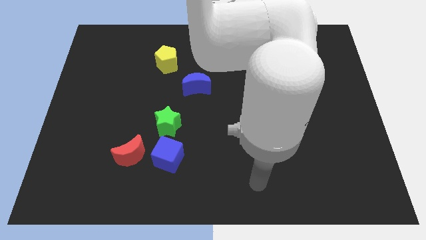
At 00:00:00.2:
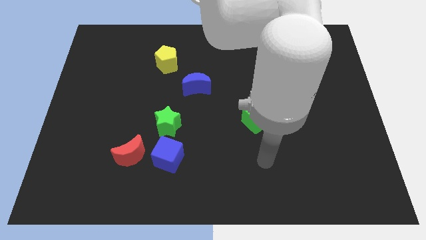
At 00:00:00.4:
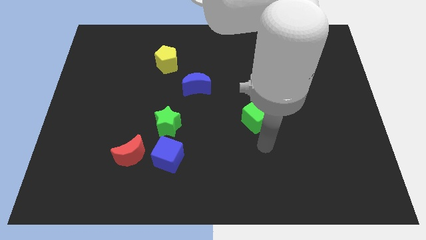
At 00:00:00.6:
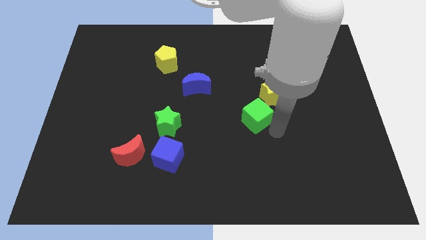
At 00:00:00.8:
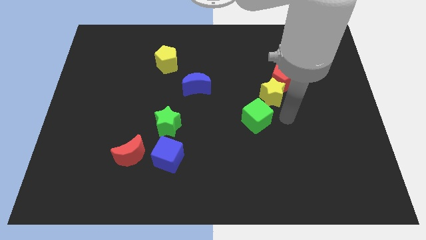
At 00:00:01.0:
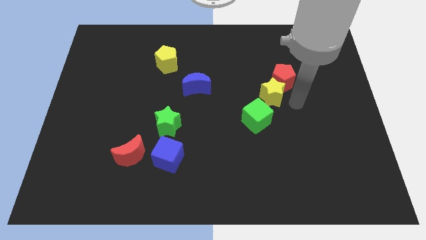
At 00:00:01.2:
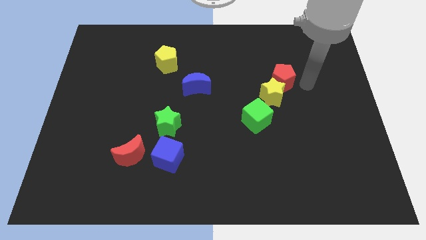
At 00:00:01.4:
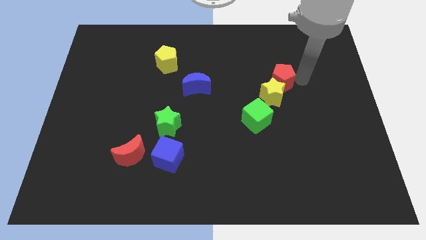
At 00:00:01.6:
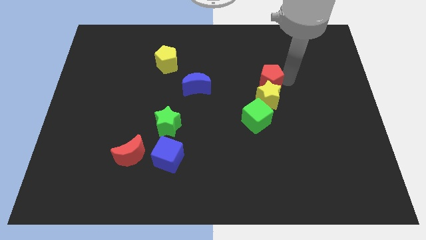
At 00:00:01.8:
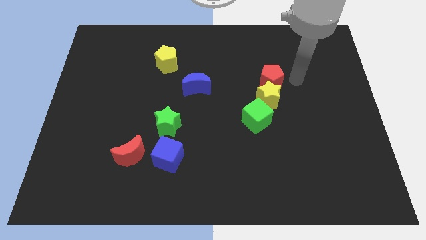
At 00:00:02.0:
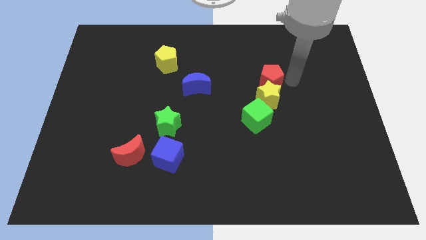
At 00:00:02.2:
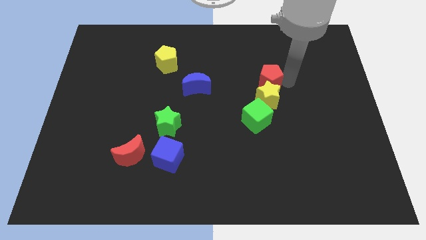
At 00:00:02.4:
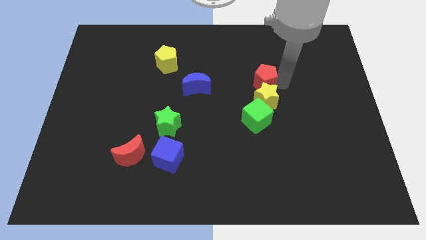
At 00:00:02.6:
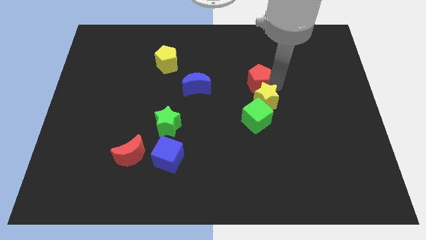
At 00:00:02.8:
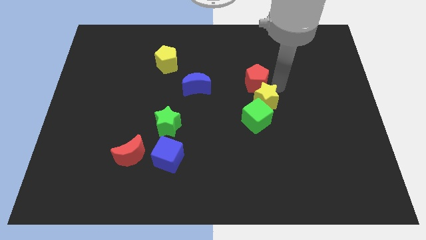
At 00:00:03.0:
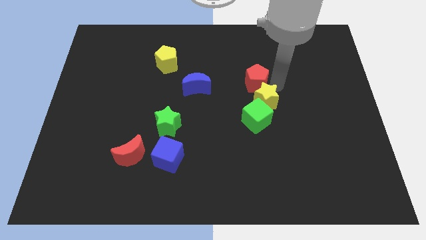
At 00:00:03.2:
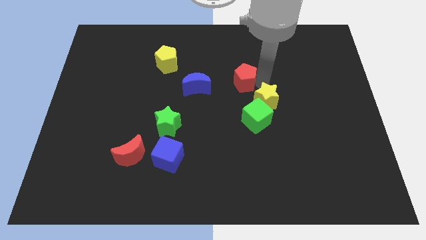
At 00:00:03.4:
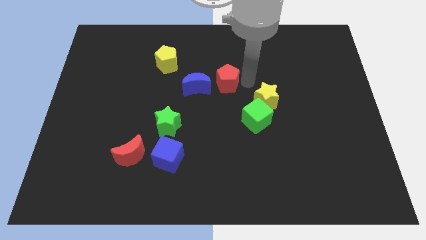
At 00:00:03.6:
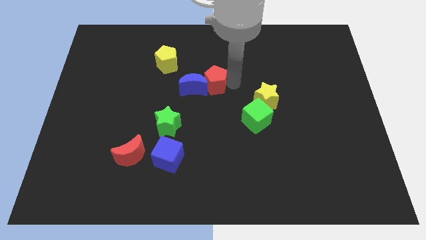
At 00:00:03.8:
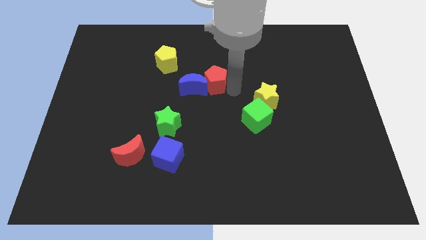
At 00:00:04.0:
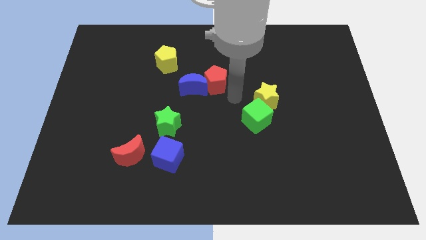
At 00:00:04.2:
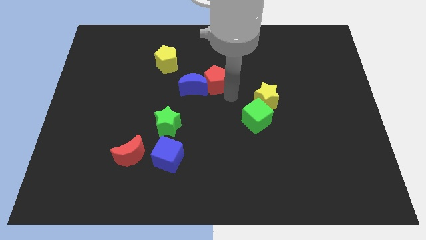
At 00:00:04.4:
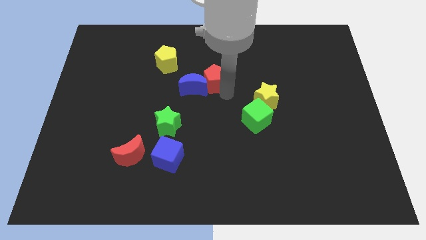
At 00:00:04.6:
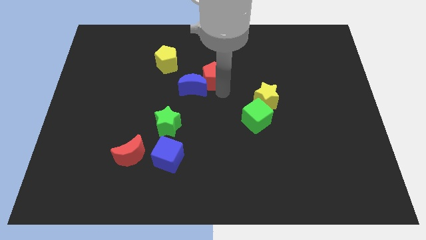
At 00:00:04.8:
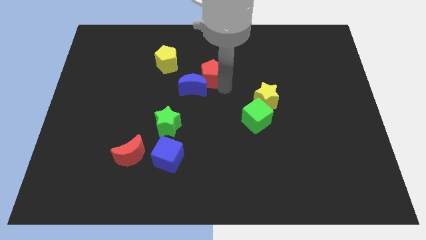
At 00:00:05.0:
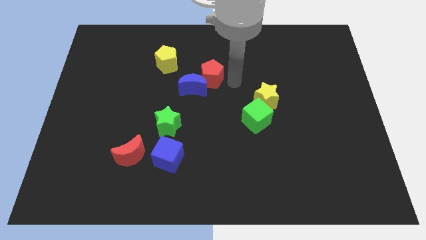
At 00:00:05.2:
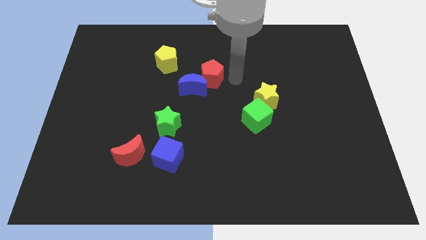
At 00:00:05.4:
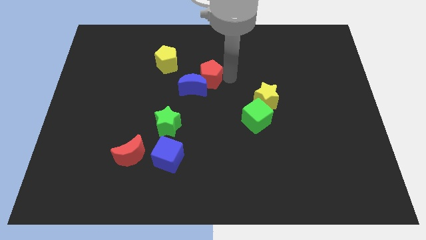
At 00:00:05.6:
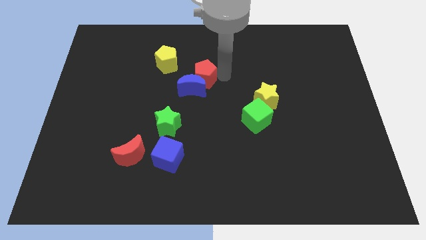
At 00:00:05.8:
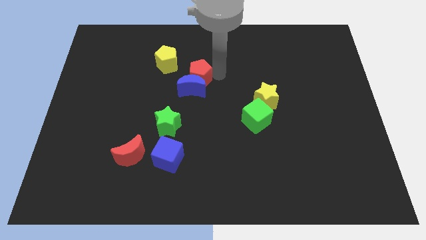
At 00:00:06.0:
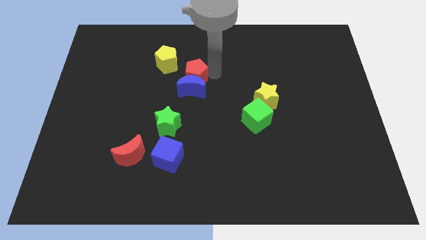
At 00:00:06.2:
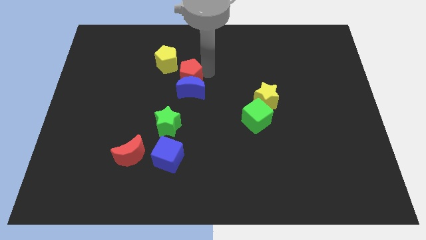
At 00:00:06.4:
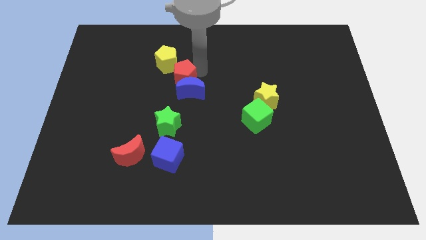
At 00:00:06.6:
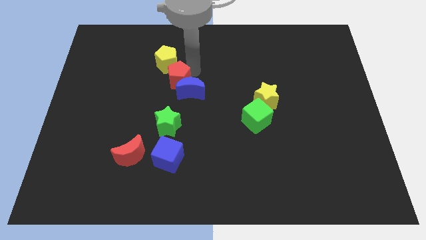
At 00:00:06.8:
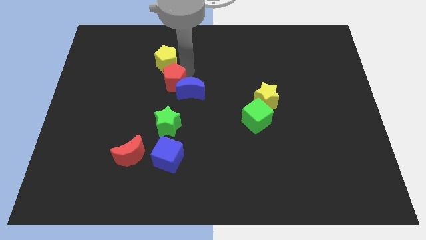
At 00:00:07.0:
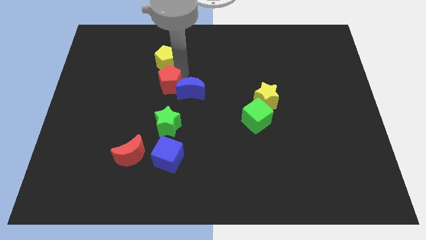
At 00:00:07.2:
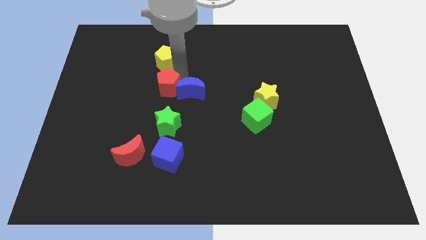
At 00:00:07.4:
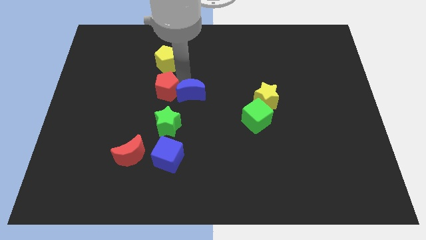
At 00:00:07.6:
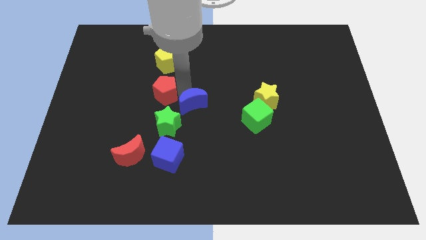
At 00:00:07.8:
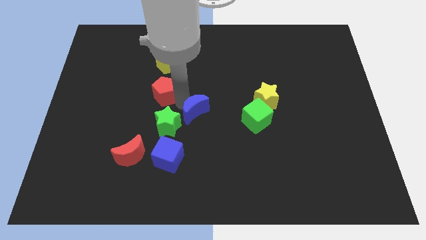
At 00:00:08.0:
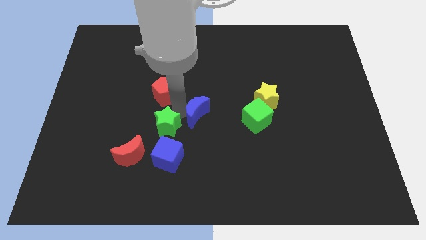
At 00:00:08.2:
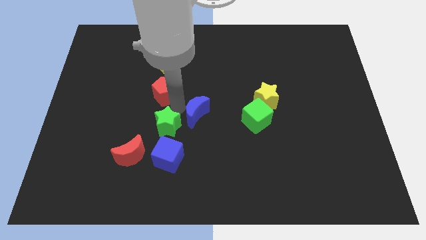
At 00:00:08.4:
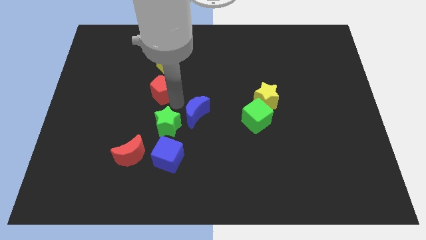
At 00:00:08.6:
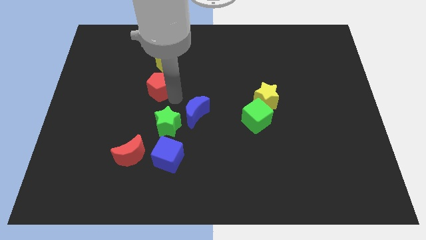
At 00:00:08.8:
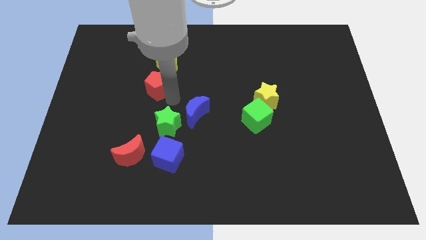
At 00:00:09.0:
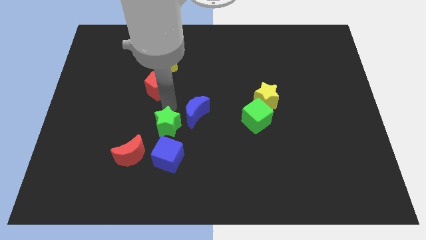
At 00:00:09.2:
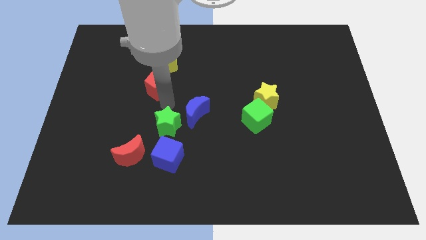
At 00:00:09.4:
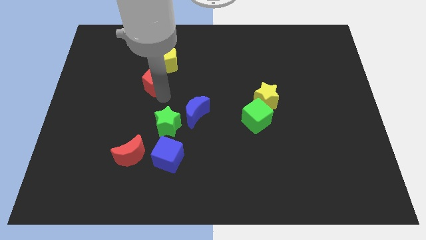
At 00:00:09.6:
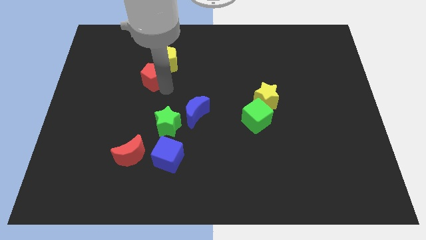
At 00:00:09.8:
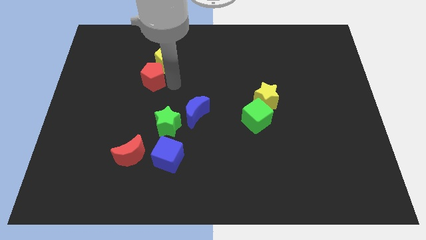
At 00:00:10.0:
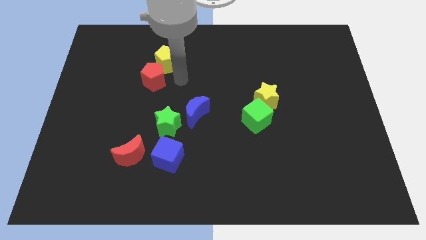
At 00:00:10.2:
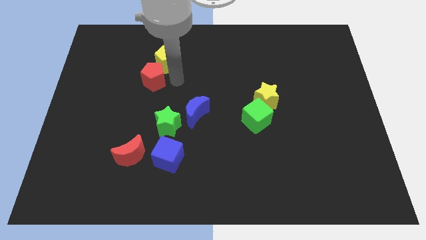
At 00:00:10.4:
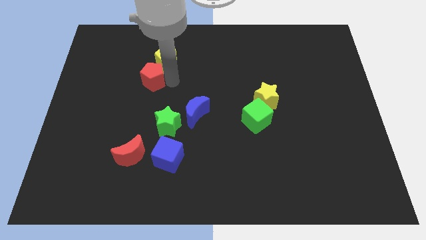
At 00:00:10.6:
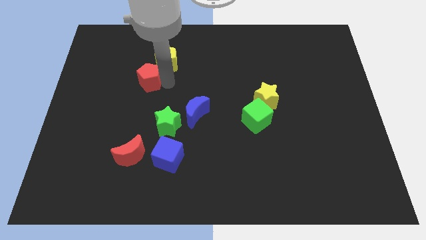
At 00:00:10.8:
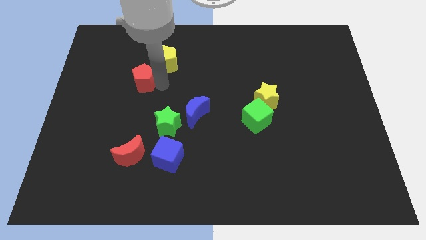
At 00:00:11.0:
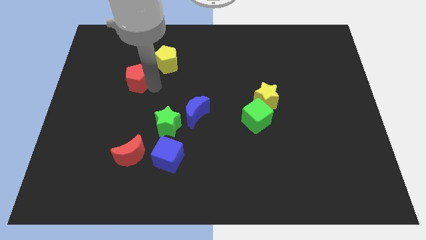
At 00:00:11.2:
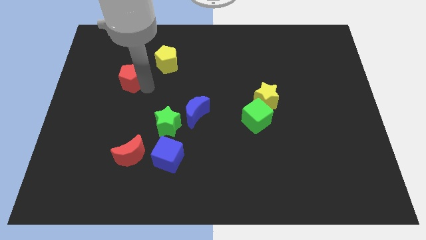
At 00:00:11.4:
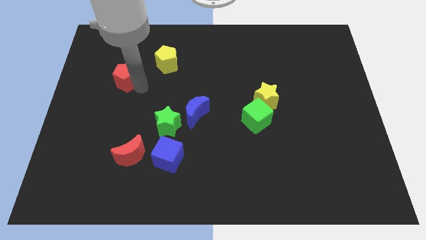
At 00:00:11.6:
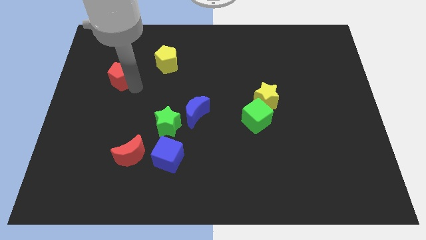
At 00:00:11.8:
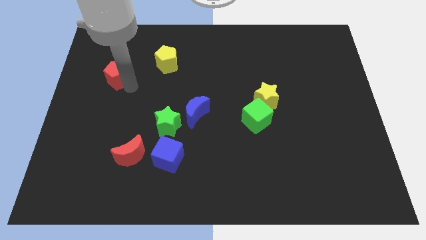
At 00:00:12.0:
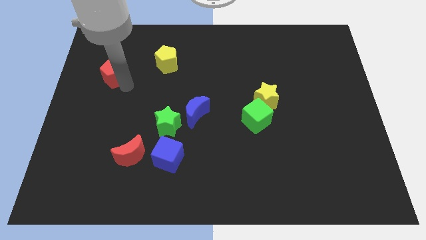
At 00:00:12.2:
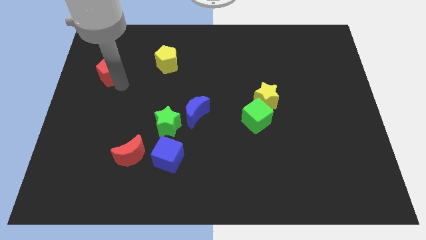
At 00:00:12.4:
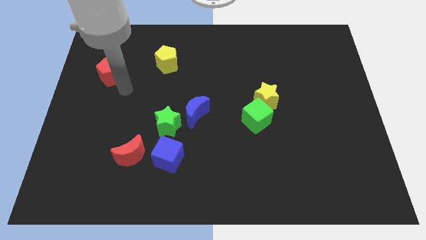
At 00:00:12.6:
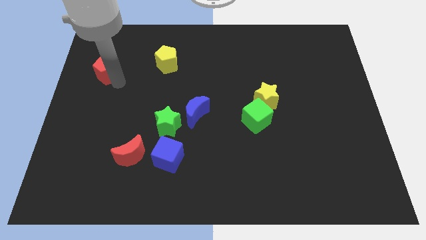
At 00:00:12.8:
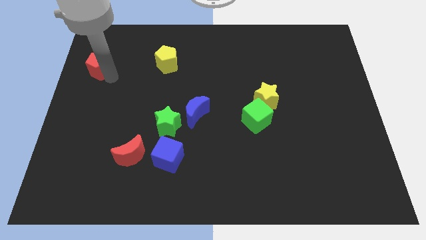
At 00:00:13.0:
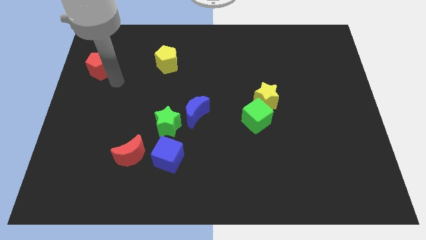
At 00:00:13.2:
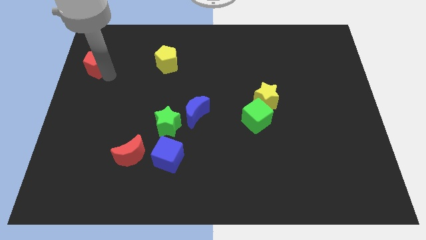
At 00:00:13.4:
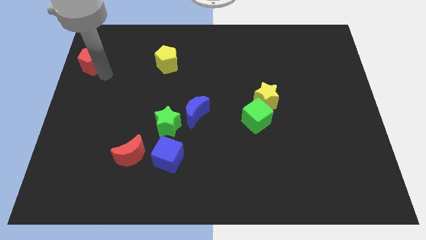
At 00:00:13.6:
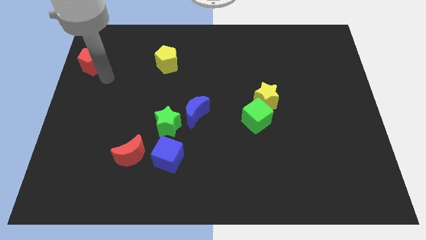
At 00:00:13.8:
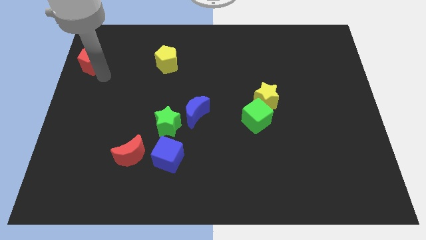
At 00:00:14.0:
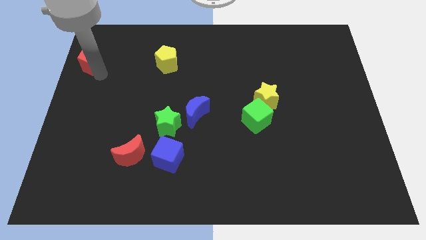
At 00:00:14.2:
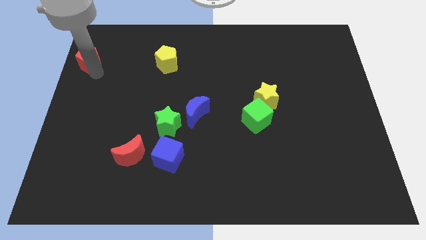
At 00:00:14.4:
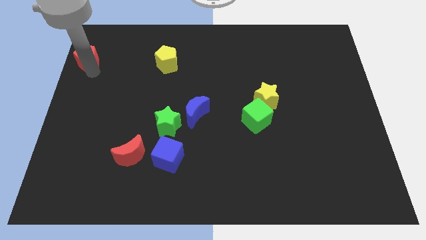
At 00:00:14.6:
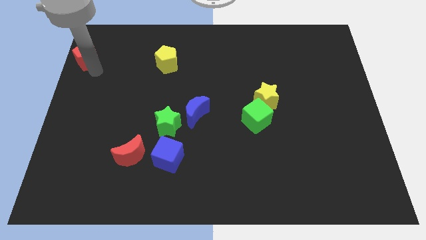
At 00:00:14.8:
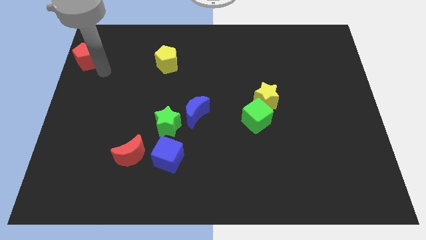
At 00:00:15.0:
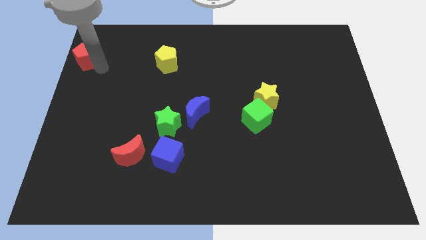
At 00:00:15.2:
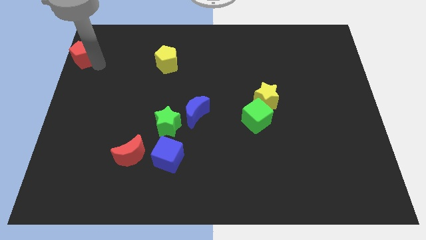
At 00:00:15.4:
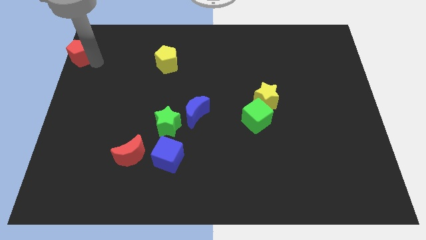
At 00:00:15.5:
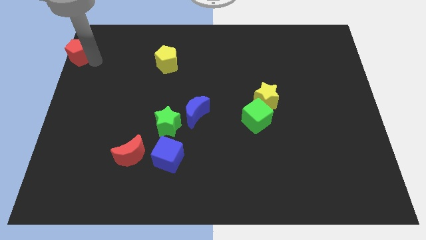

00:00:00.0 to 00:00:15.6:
move the red pentagon to the upper left corner
